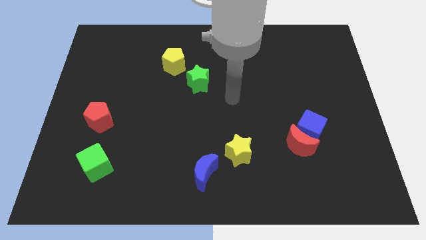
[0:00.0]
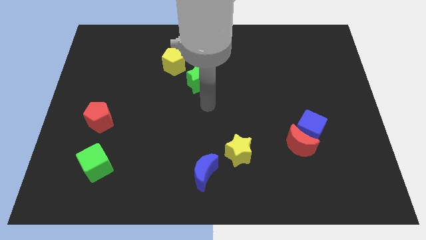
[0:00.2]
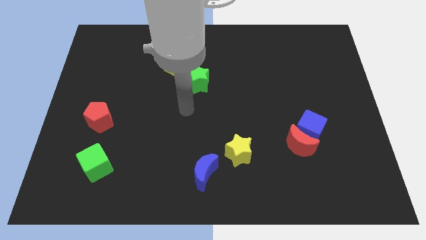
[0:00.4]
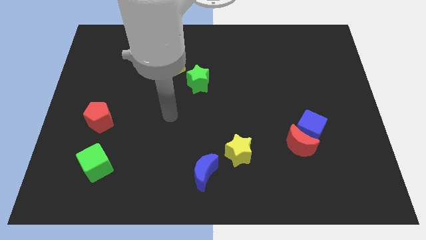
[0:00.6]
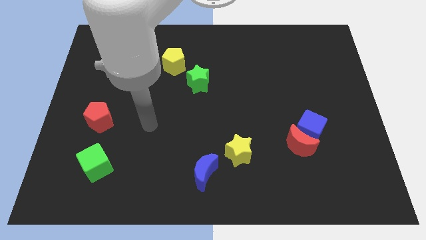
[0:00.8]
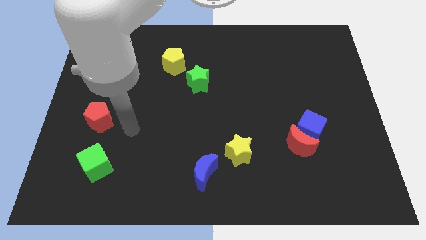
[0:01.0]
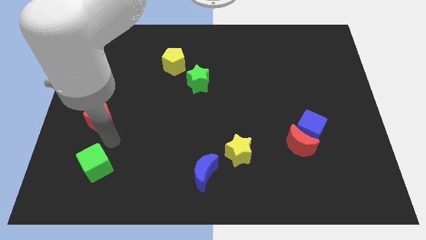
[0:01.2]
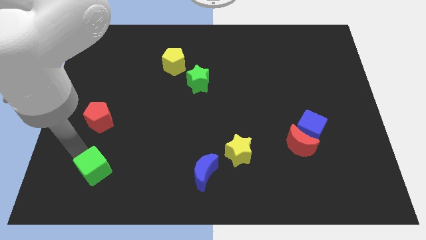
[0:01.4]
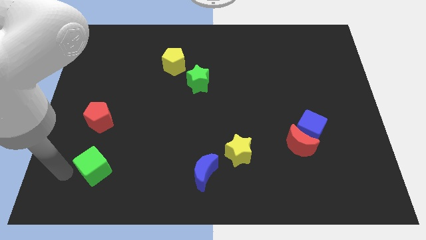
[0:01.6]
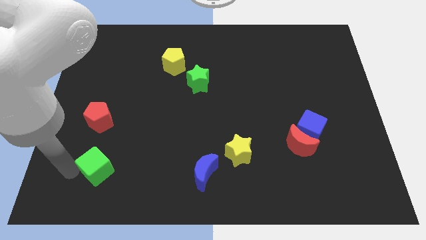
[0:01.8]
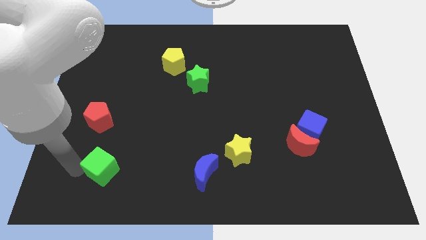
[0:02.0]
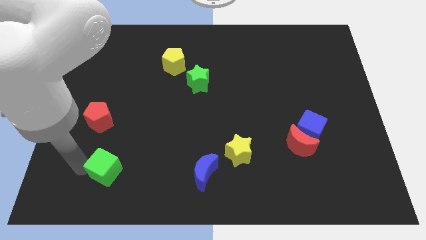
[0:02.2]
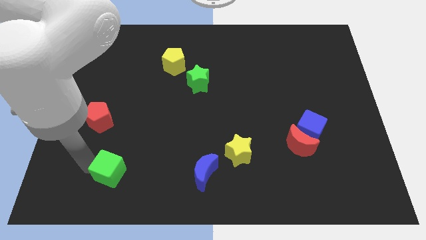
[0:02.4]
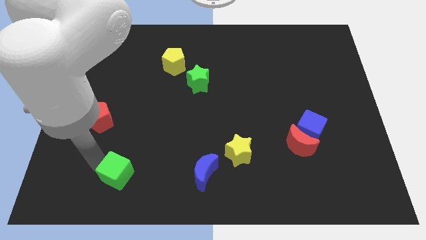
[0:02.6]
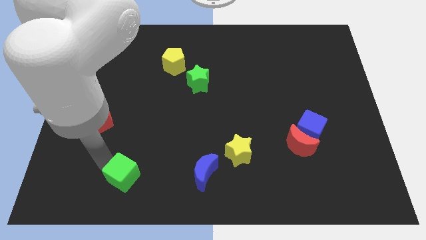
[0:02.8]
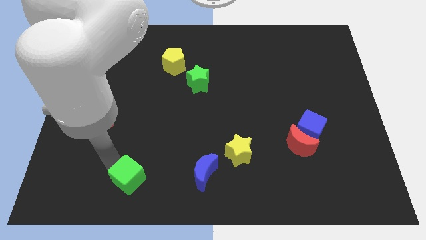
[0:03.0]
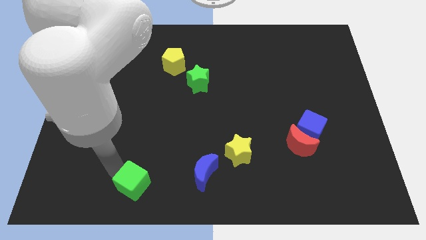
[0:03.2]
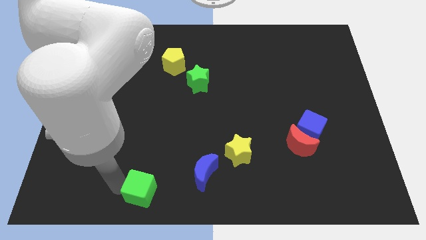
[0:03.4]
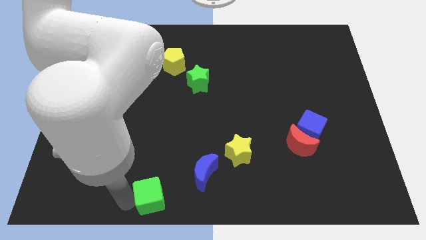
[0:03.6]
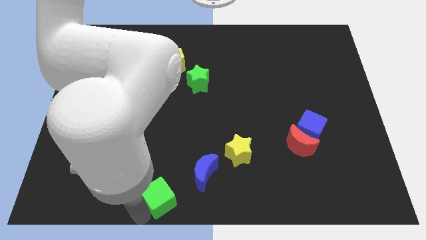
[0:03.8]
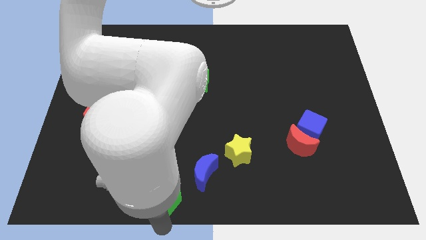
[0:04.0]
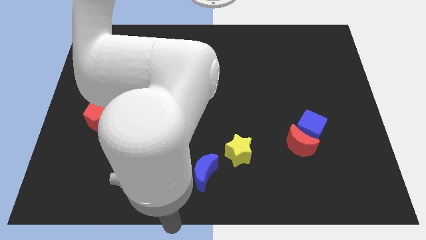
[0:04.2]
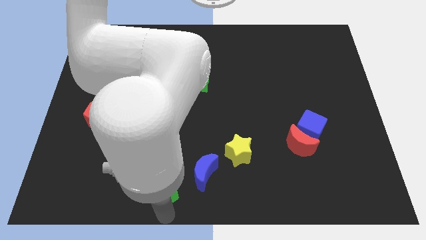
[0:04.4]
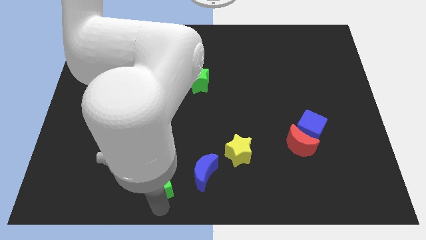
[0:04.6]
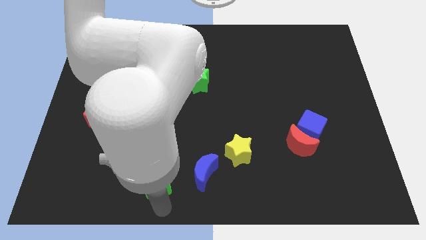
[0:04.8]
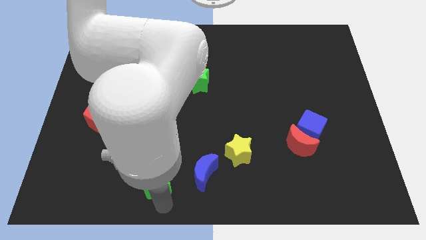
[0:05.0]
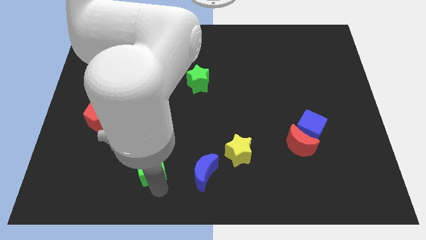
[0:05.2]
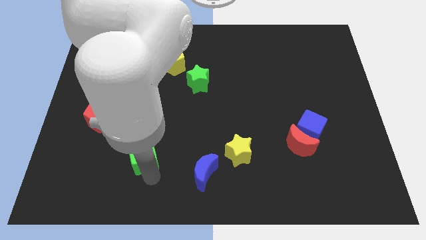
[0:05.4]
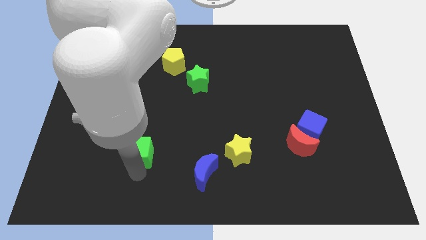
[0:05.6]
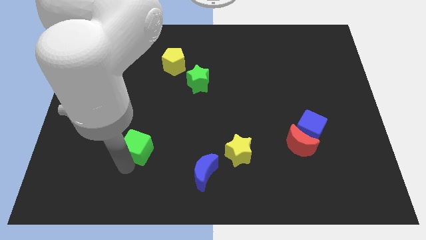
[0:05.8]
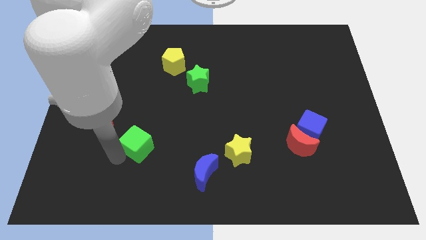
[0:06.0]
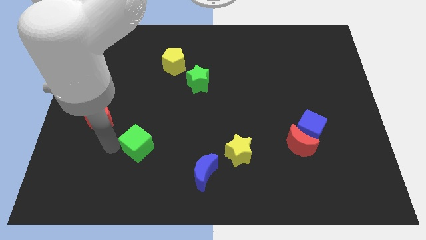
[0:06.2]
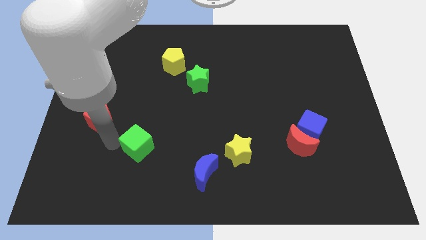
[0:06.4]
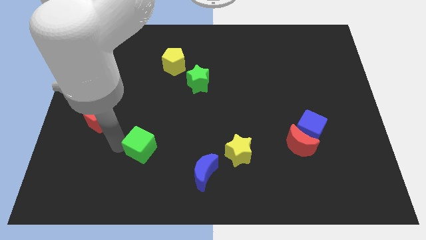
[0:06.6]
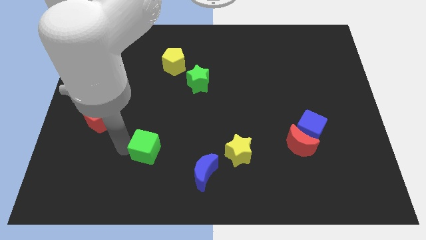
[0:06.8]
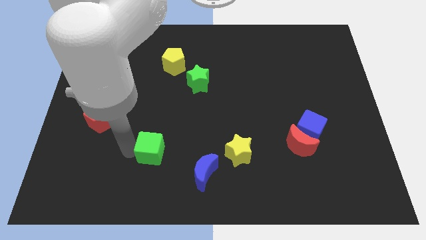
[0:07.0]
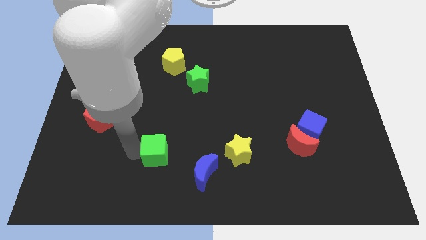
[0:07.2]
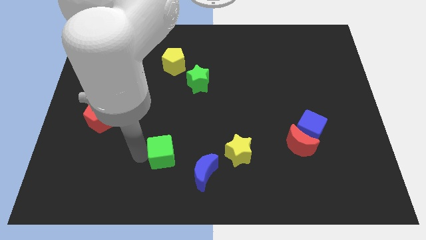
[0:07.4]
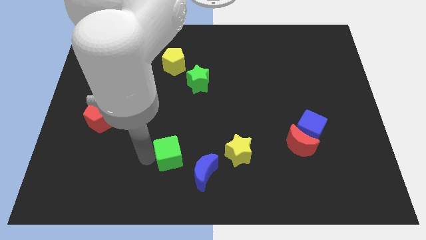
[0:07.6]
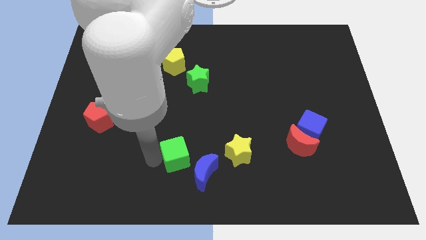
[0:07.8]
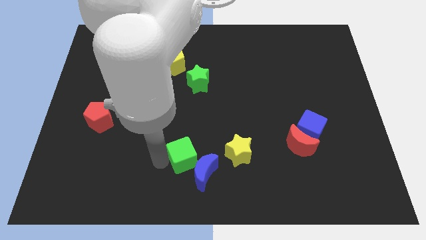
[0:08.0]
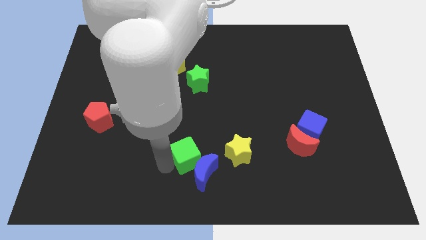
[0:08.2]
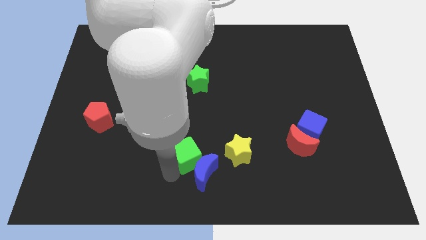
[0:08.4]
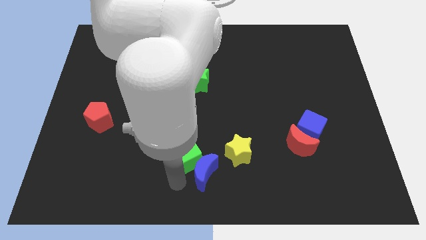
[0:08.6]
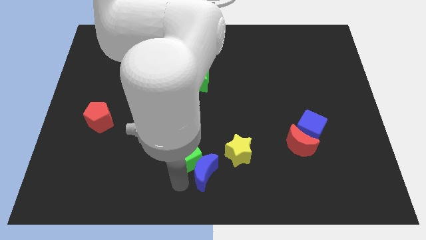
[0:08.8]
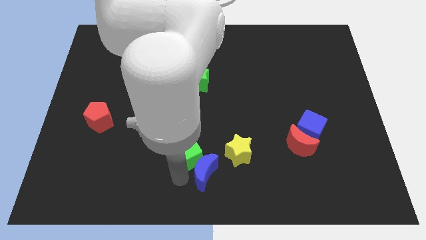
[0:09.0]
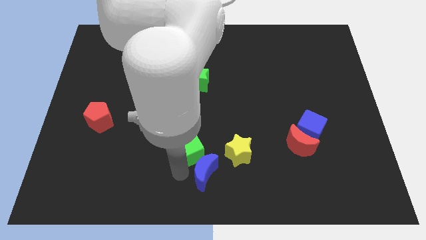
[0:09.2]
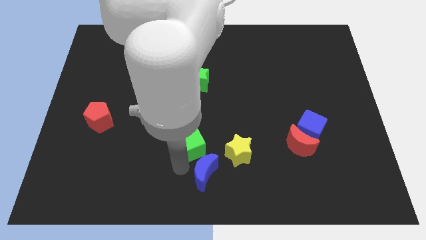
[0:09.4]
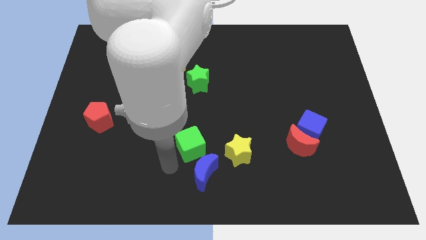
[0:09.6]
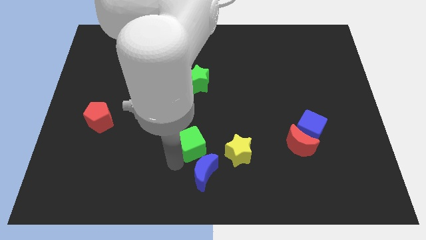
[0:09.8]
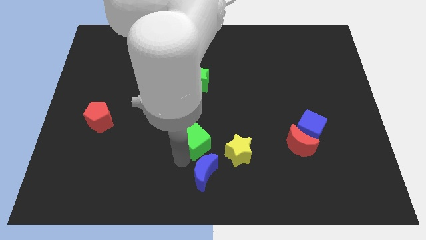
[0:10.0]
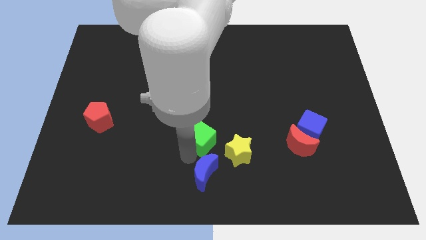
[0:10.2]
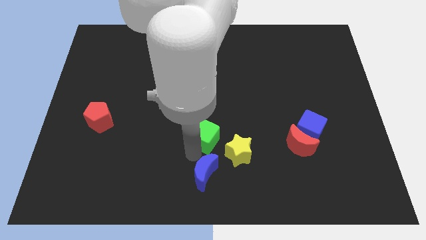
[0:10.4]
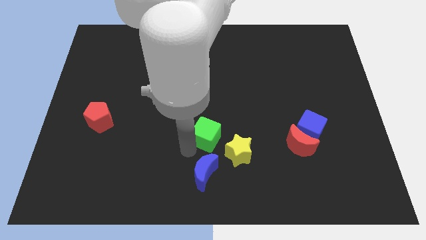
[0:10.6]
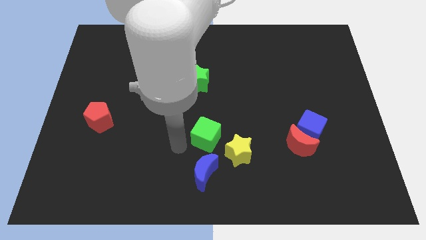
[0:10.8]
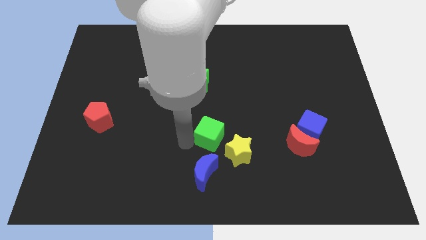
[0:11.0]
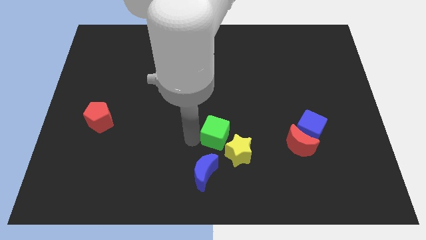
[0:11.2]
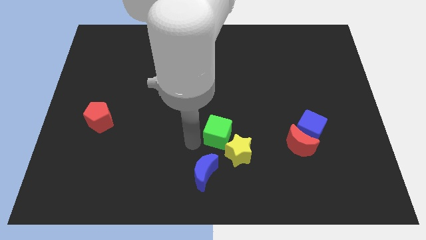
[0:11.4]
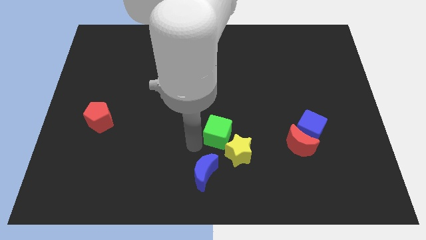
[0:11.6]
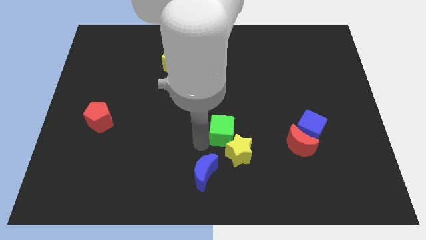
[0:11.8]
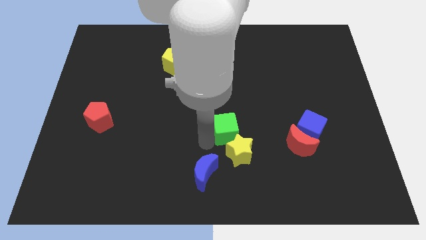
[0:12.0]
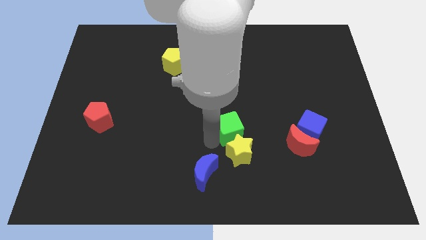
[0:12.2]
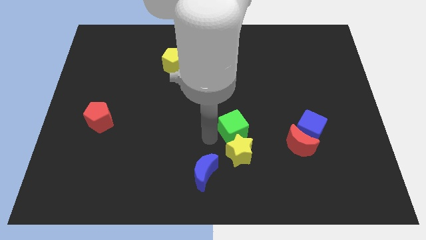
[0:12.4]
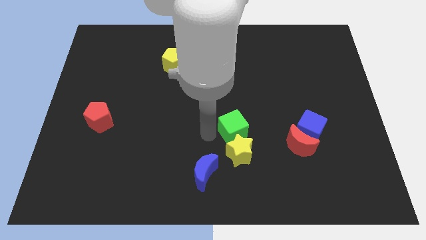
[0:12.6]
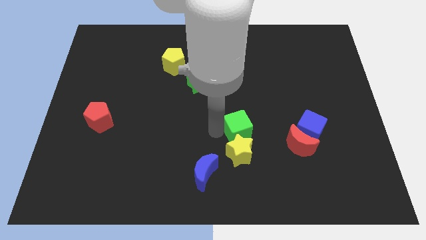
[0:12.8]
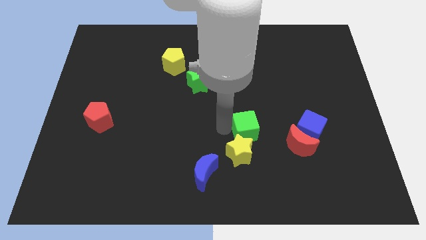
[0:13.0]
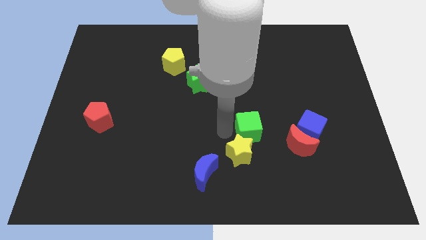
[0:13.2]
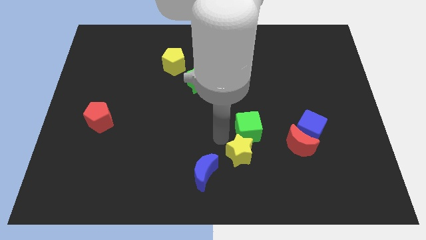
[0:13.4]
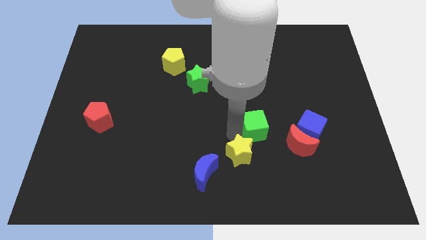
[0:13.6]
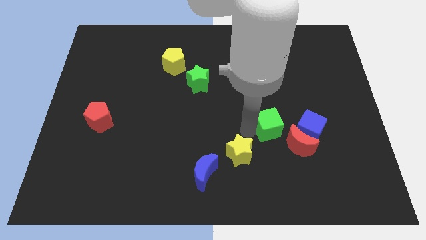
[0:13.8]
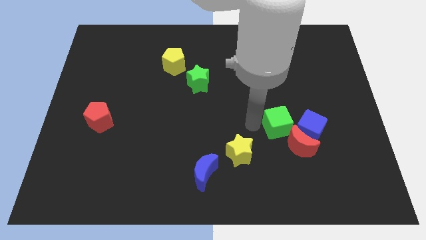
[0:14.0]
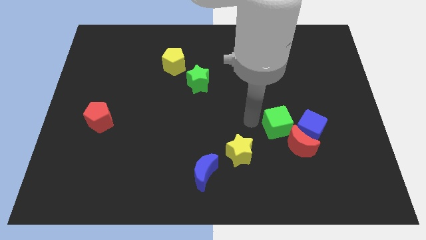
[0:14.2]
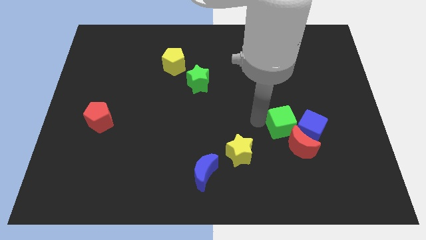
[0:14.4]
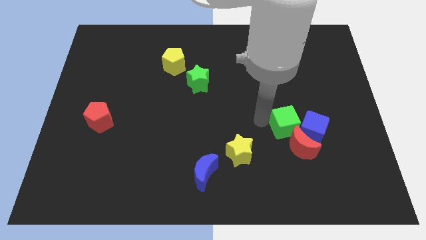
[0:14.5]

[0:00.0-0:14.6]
push the green cube towards the blue cube
